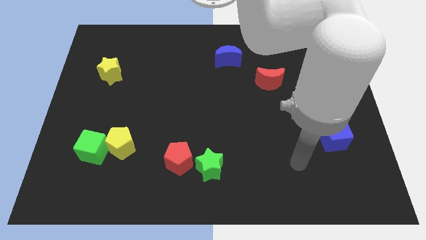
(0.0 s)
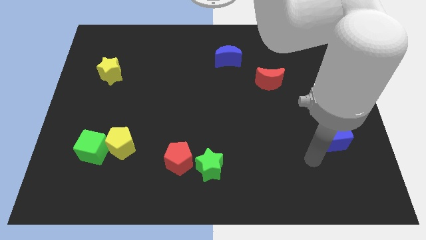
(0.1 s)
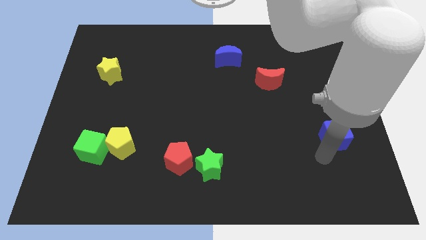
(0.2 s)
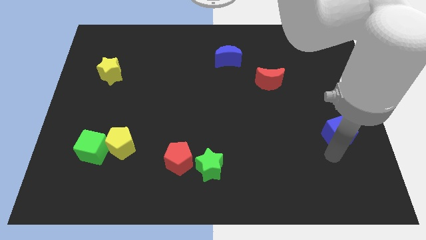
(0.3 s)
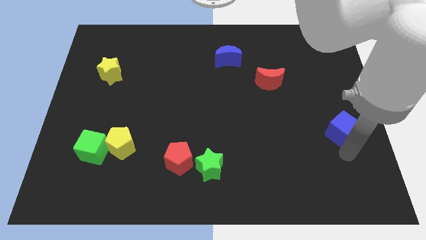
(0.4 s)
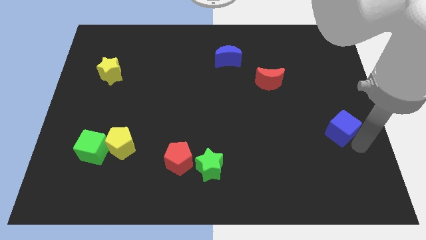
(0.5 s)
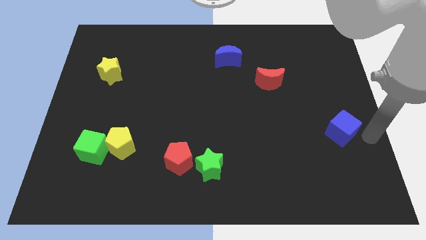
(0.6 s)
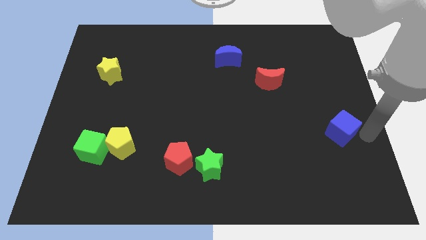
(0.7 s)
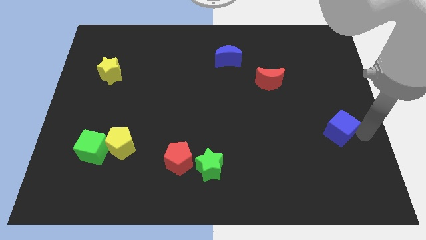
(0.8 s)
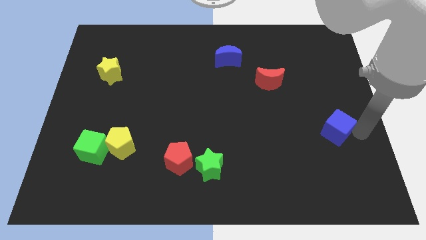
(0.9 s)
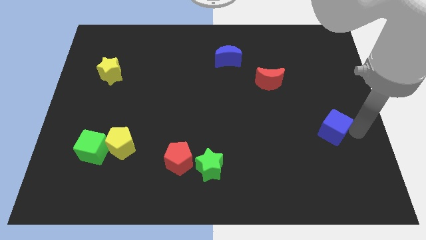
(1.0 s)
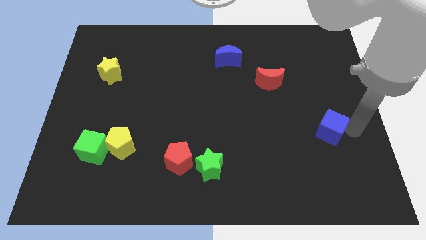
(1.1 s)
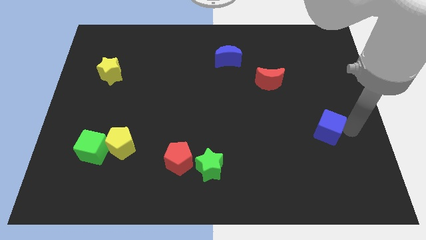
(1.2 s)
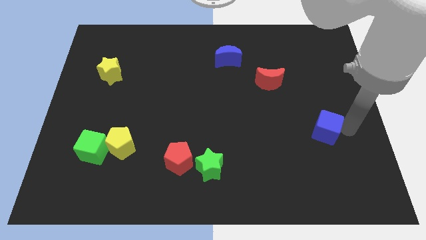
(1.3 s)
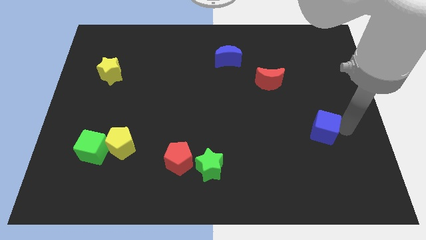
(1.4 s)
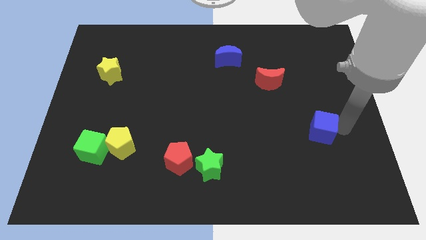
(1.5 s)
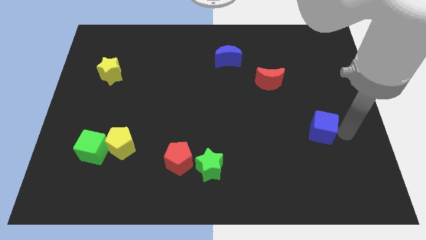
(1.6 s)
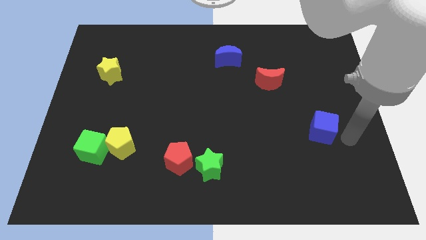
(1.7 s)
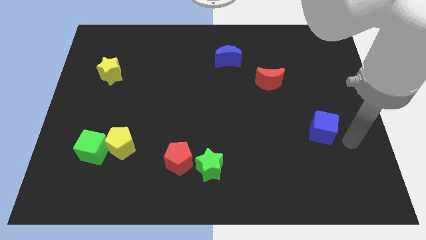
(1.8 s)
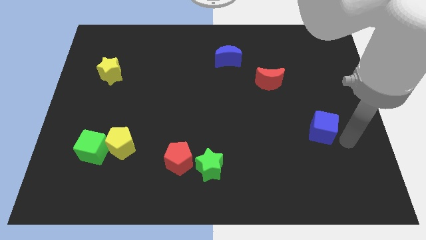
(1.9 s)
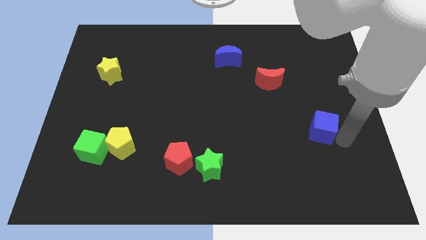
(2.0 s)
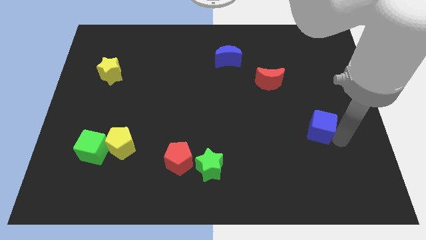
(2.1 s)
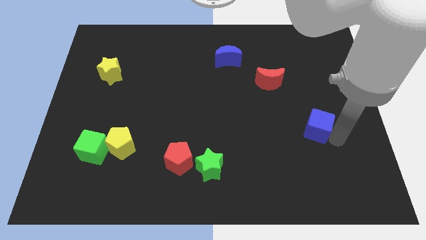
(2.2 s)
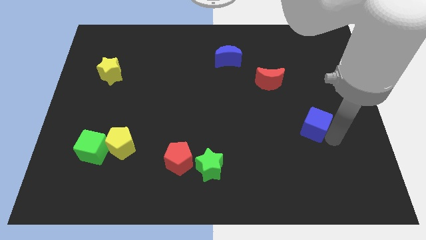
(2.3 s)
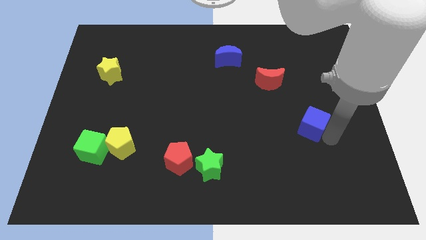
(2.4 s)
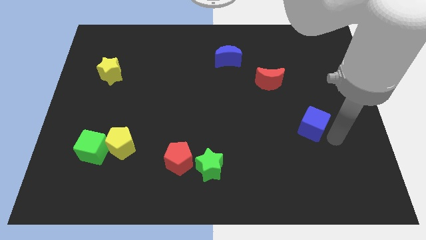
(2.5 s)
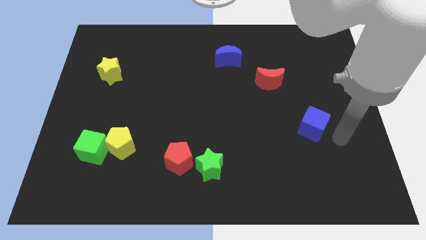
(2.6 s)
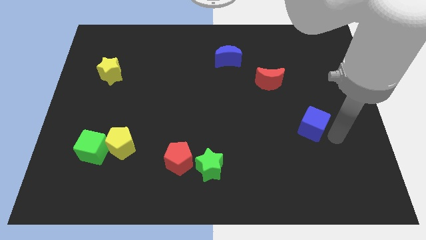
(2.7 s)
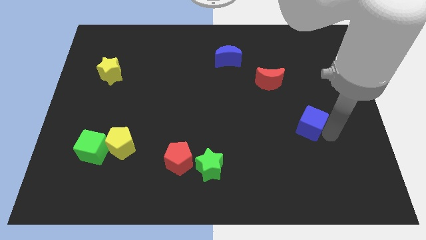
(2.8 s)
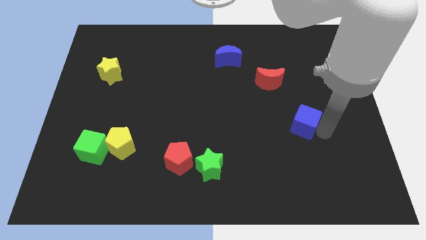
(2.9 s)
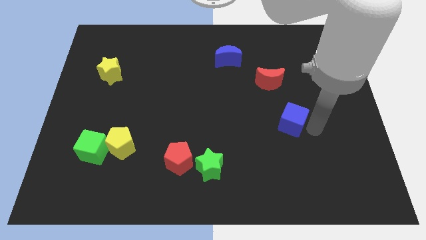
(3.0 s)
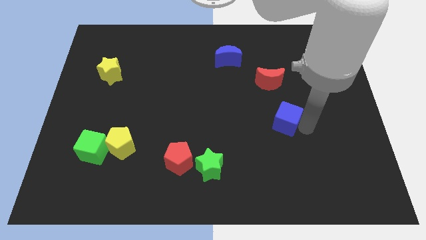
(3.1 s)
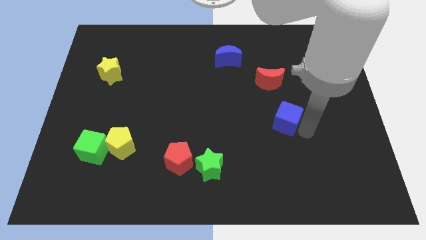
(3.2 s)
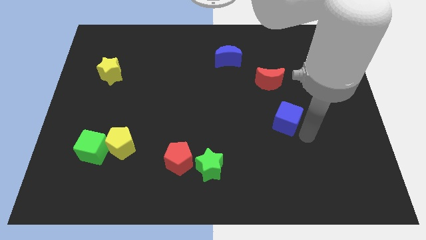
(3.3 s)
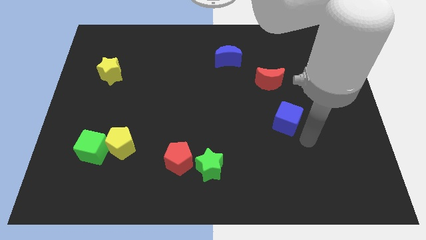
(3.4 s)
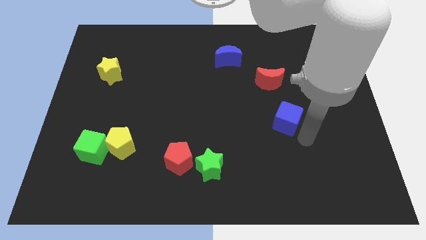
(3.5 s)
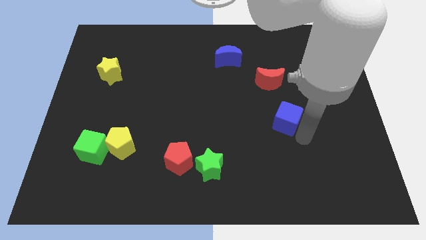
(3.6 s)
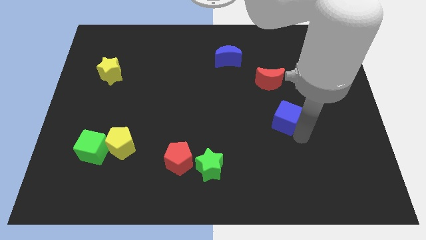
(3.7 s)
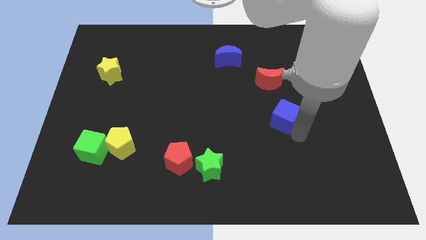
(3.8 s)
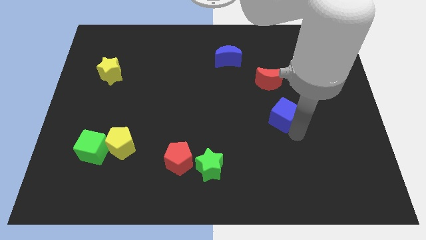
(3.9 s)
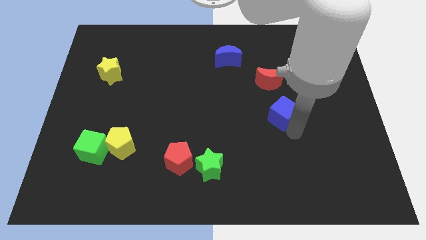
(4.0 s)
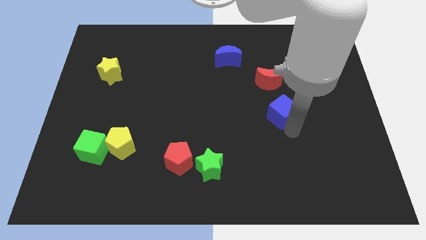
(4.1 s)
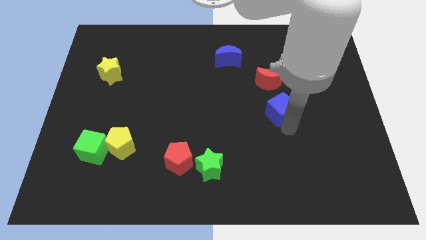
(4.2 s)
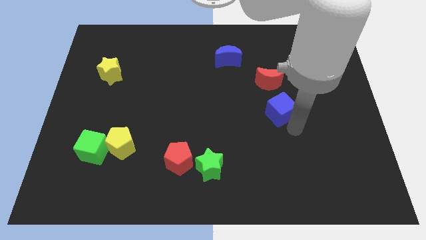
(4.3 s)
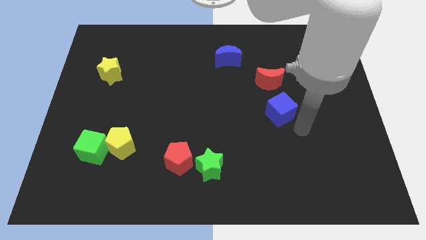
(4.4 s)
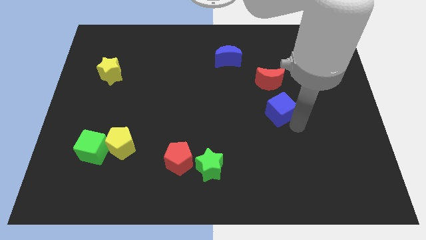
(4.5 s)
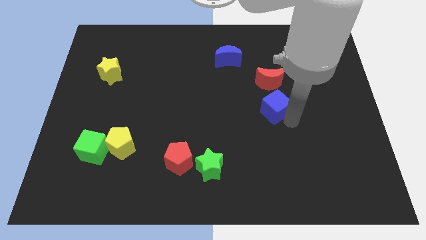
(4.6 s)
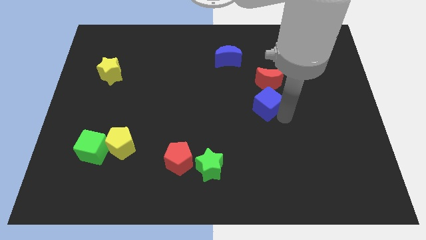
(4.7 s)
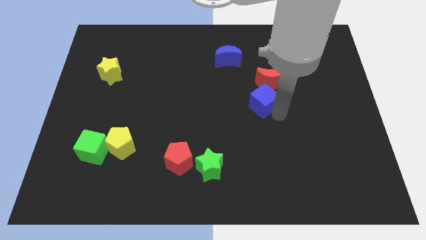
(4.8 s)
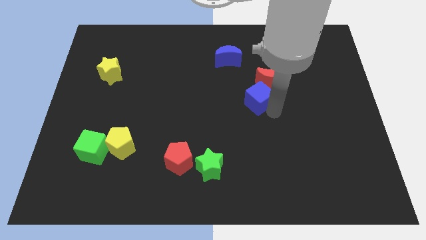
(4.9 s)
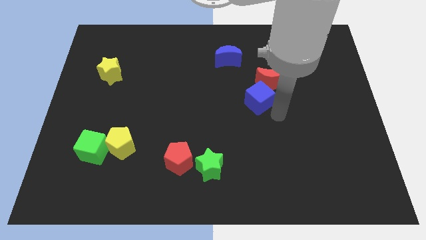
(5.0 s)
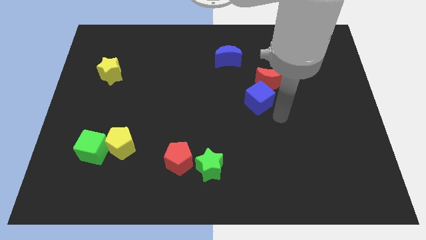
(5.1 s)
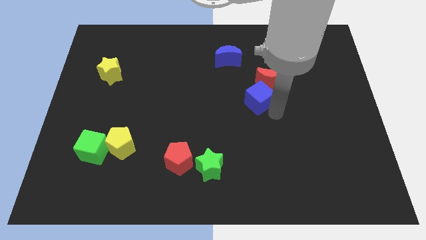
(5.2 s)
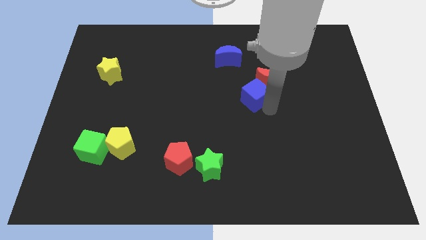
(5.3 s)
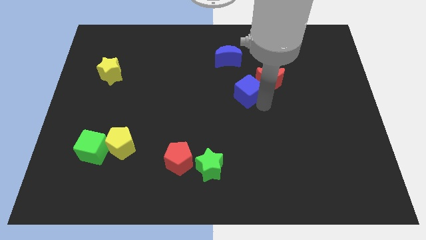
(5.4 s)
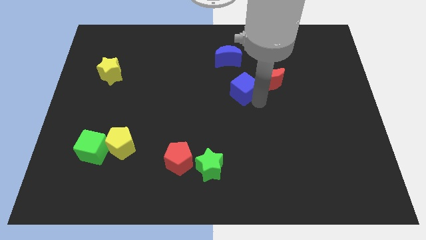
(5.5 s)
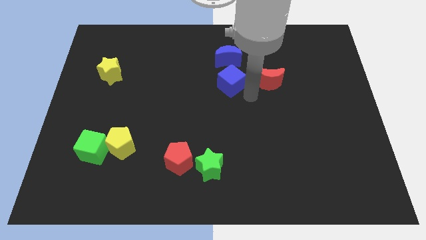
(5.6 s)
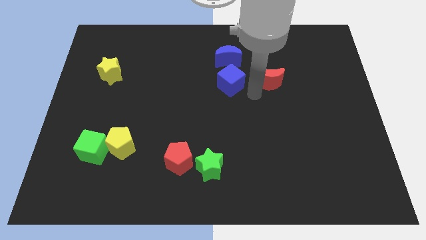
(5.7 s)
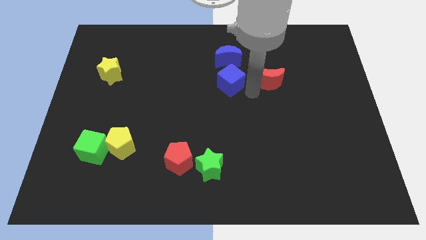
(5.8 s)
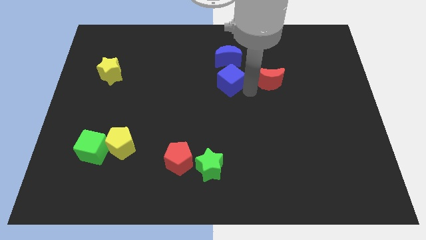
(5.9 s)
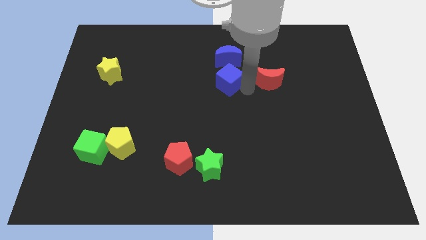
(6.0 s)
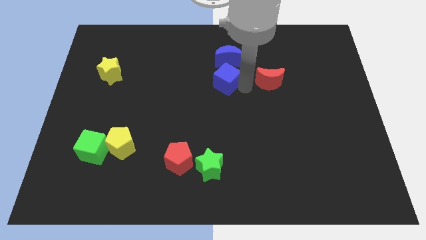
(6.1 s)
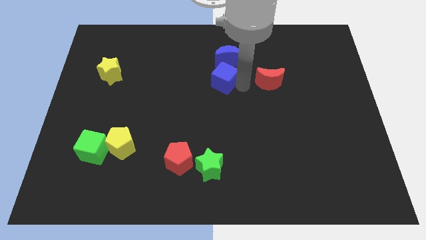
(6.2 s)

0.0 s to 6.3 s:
move the blue cube diagonally down and to the left of the blue moon

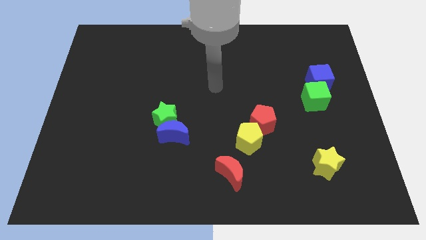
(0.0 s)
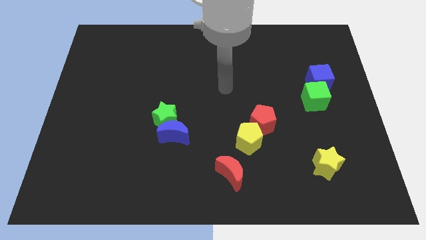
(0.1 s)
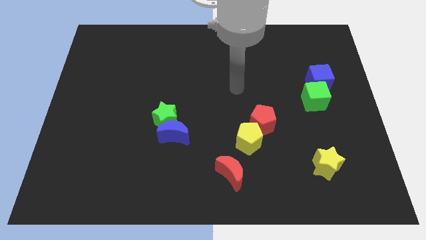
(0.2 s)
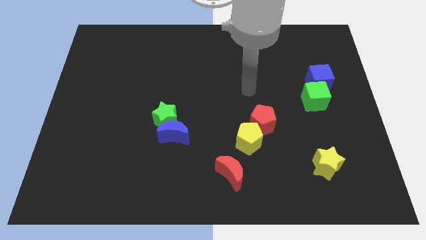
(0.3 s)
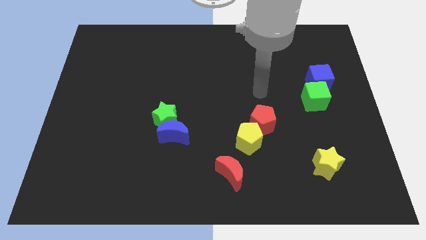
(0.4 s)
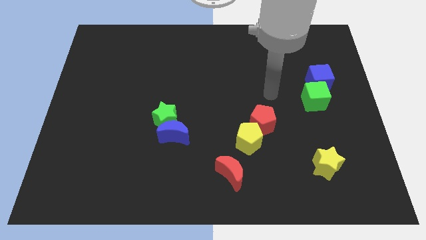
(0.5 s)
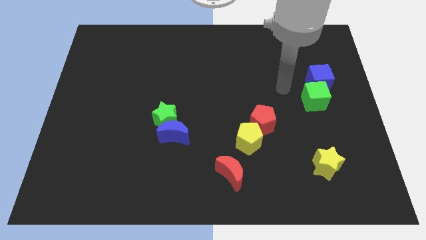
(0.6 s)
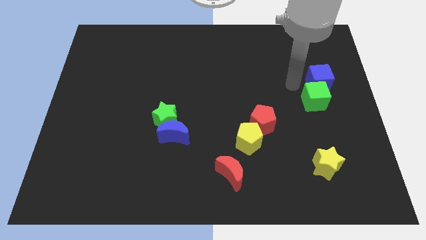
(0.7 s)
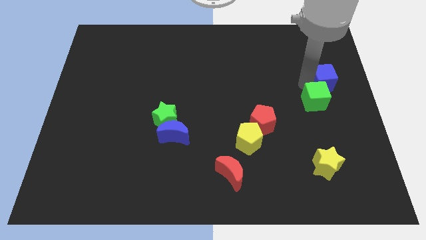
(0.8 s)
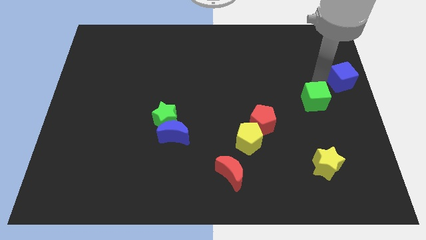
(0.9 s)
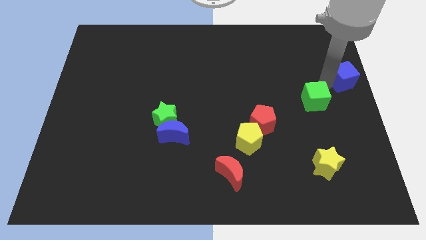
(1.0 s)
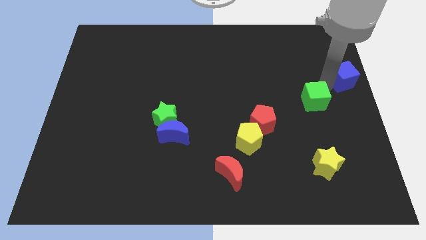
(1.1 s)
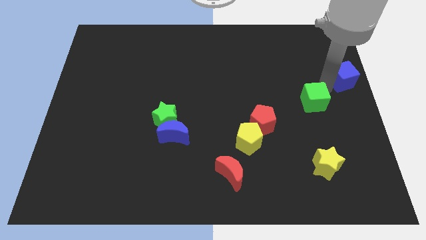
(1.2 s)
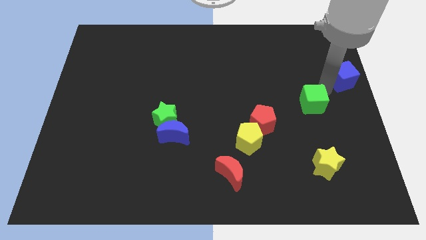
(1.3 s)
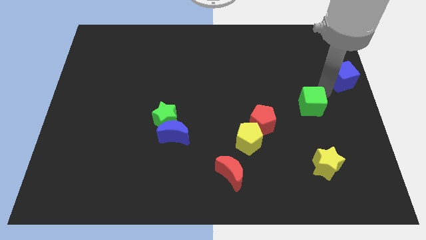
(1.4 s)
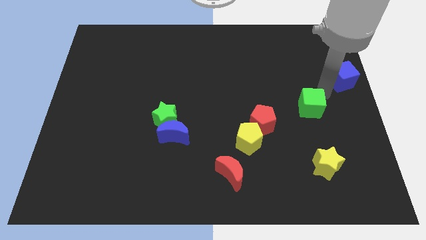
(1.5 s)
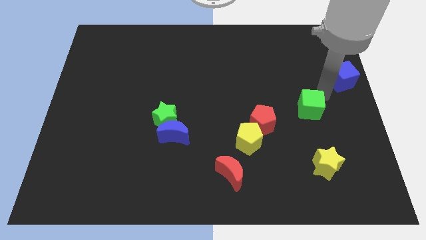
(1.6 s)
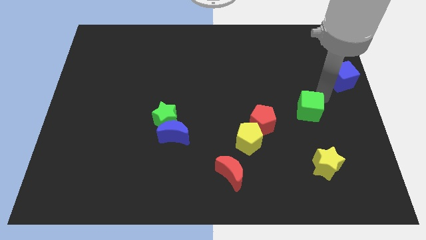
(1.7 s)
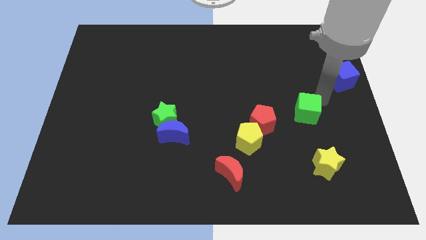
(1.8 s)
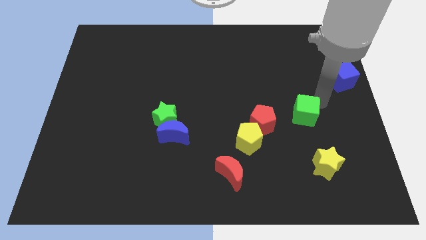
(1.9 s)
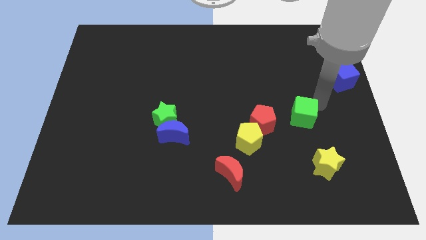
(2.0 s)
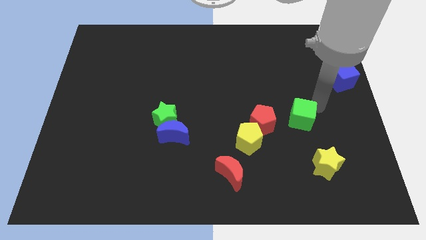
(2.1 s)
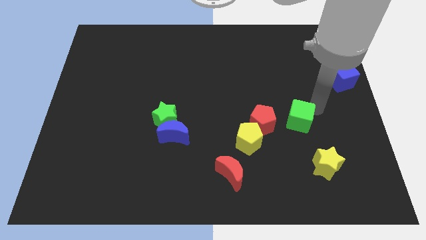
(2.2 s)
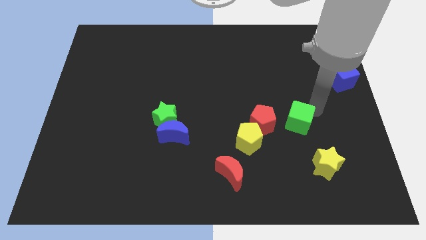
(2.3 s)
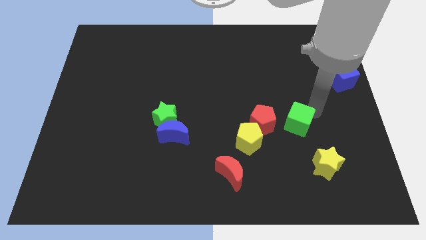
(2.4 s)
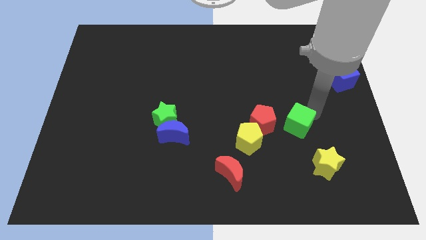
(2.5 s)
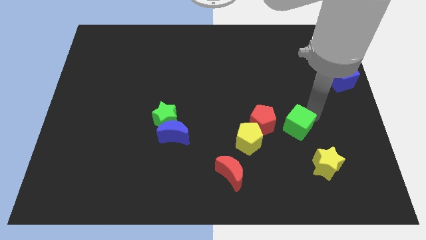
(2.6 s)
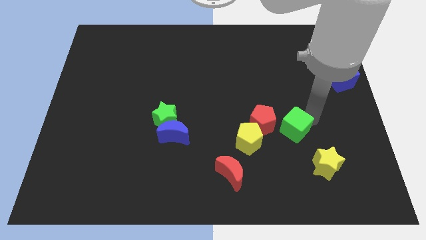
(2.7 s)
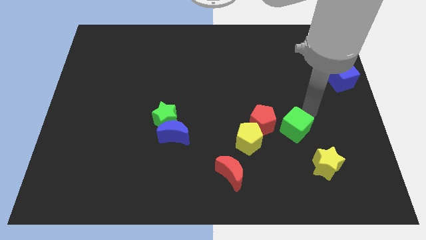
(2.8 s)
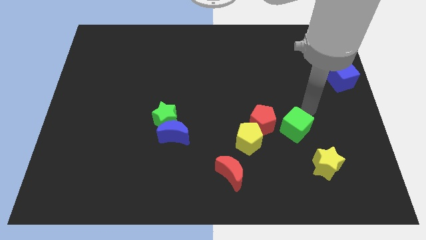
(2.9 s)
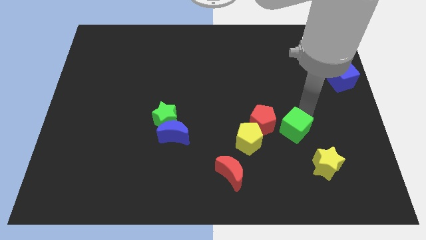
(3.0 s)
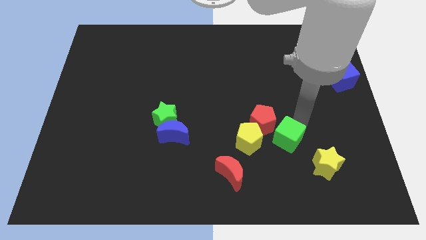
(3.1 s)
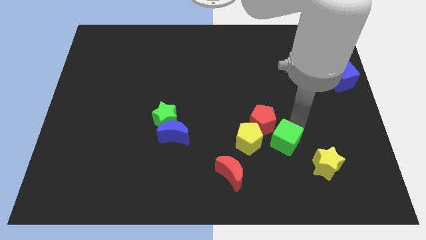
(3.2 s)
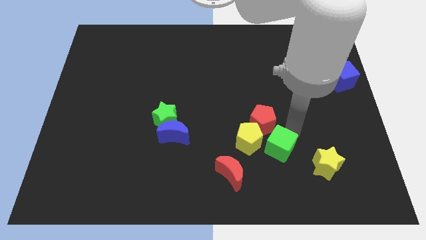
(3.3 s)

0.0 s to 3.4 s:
push the green cube to the bottom right of the yellow pentagon
